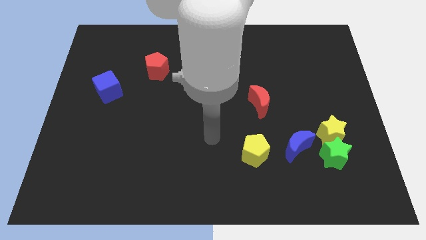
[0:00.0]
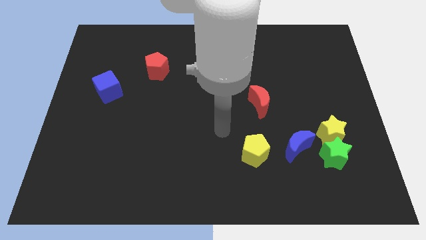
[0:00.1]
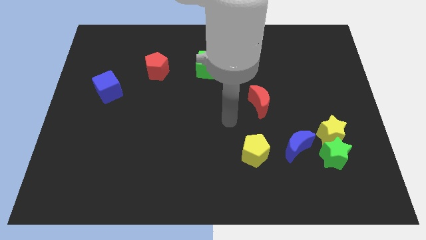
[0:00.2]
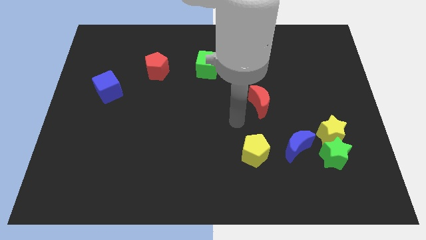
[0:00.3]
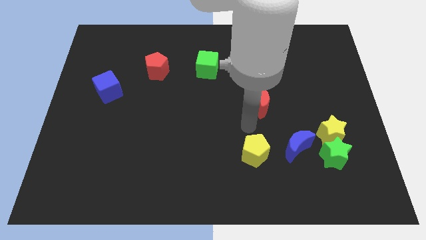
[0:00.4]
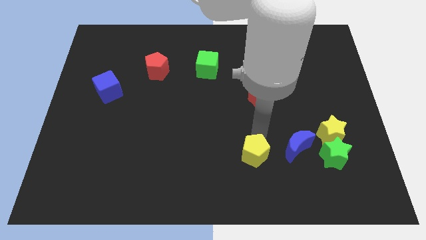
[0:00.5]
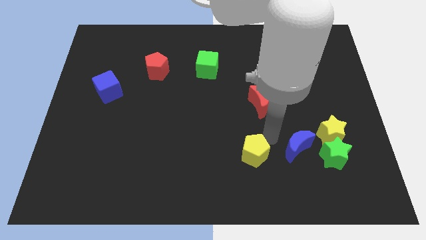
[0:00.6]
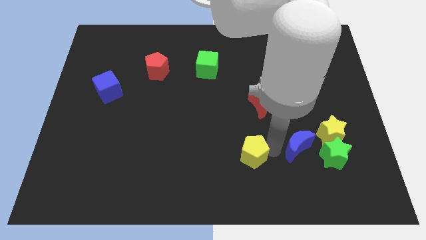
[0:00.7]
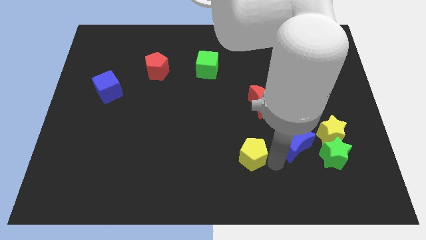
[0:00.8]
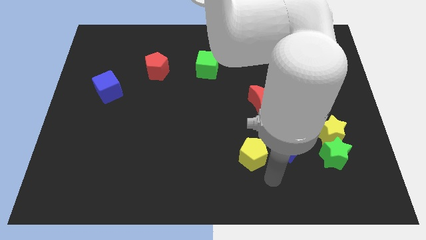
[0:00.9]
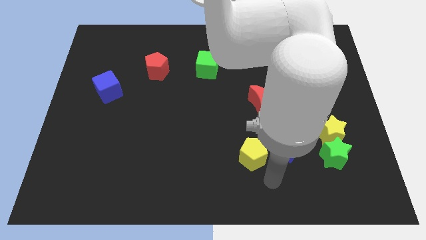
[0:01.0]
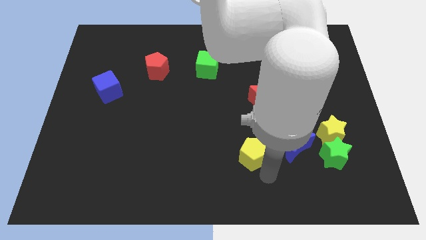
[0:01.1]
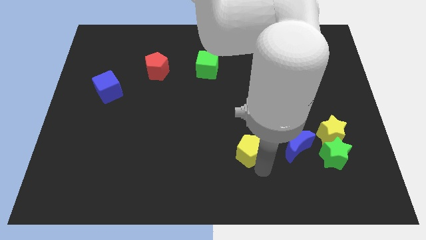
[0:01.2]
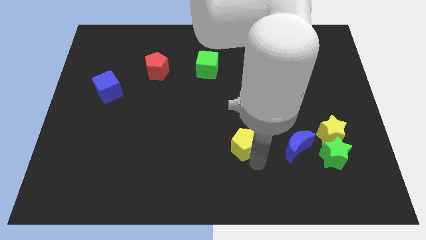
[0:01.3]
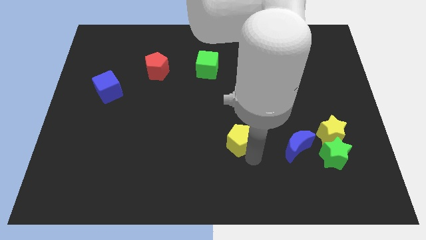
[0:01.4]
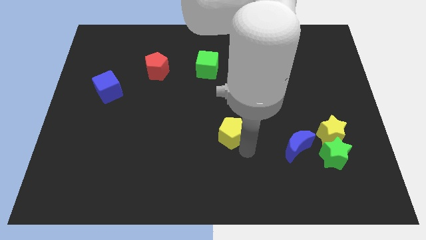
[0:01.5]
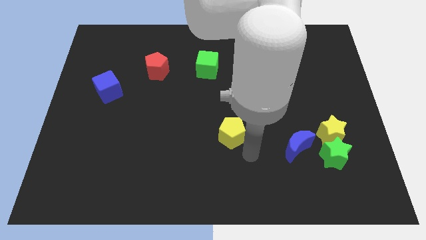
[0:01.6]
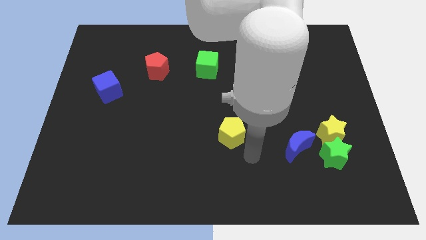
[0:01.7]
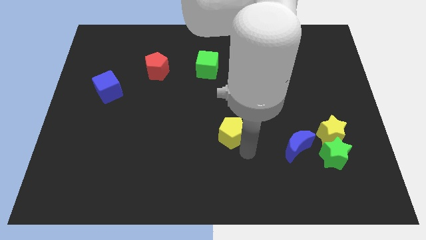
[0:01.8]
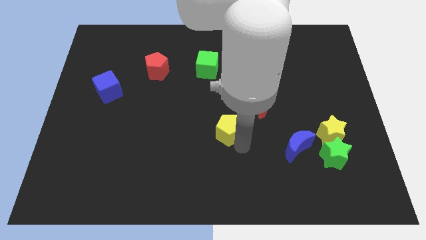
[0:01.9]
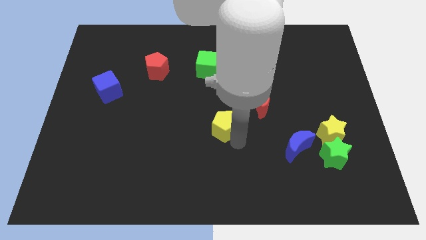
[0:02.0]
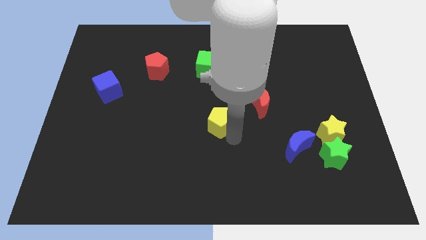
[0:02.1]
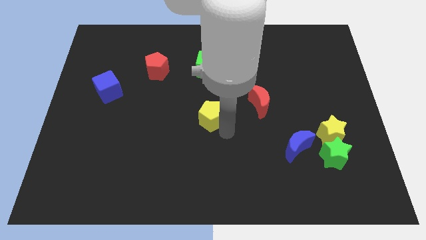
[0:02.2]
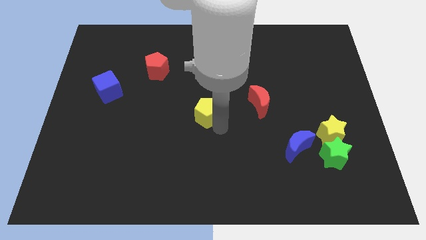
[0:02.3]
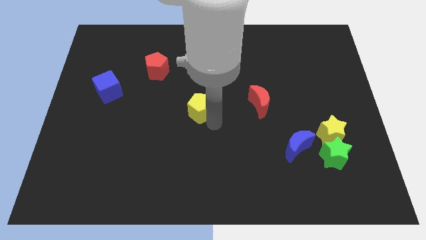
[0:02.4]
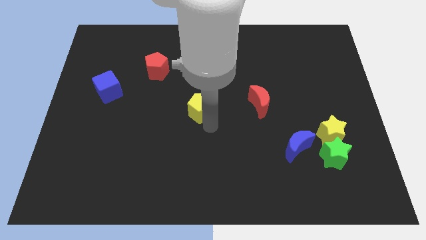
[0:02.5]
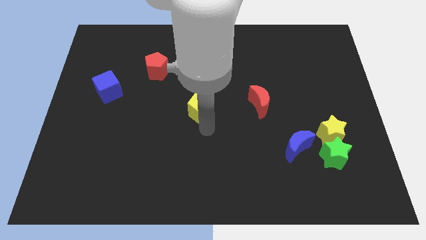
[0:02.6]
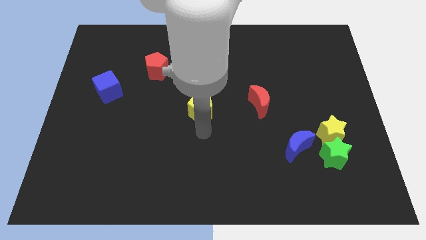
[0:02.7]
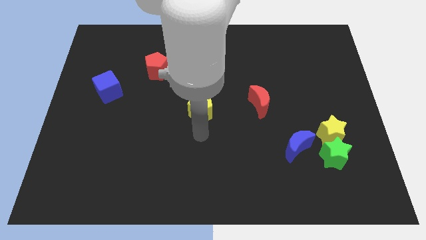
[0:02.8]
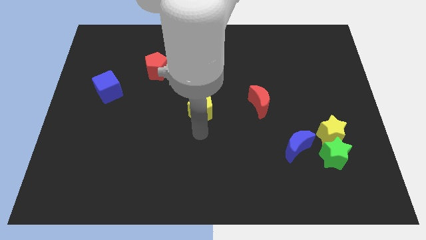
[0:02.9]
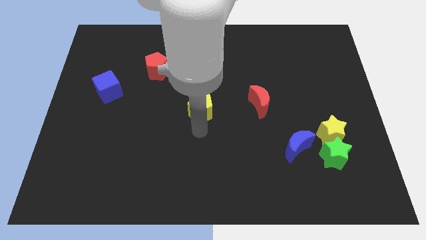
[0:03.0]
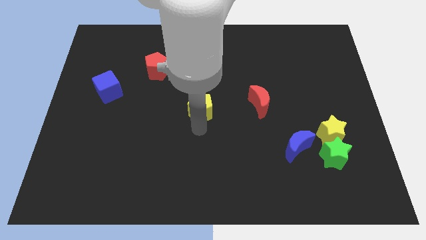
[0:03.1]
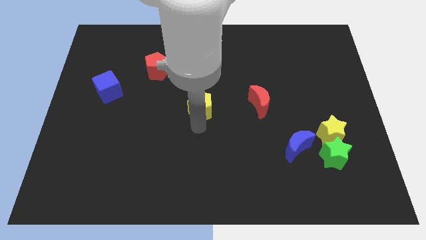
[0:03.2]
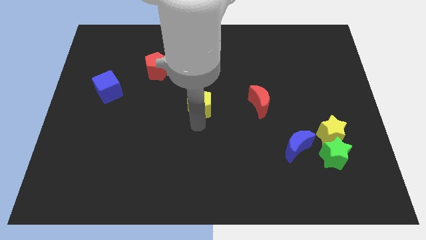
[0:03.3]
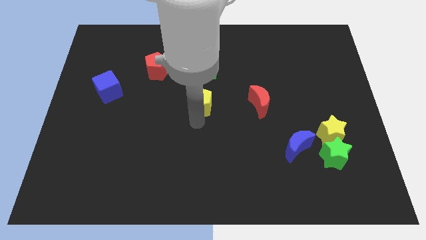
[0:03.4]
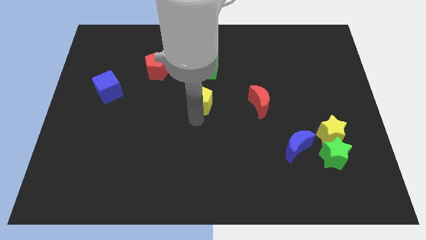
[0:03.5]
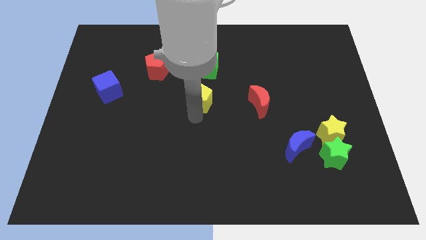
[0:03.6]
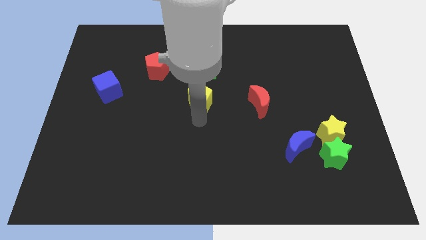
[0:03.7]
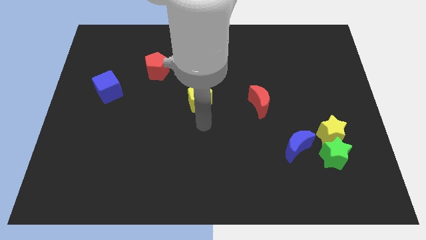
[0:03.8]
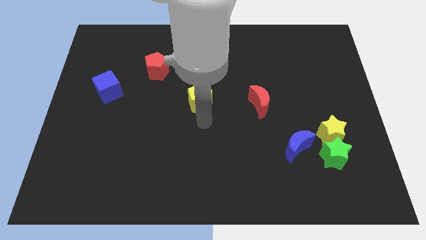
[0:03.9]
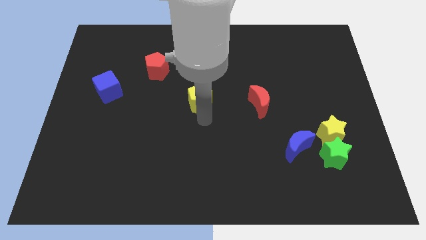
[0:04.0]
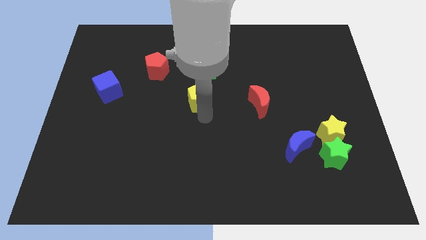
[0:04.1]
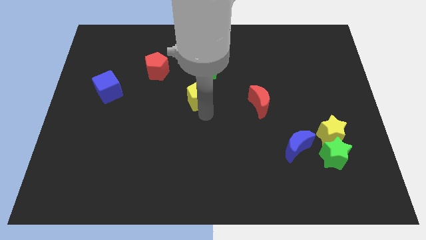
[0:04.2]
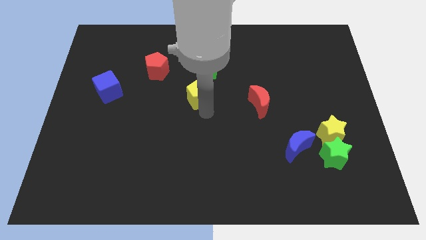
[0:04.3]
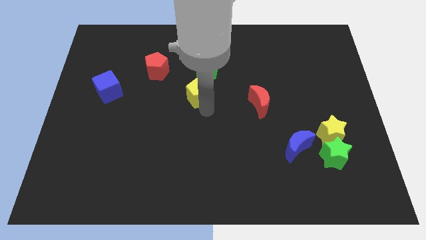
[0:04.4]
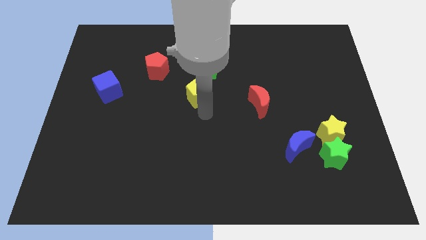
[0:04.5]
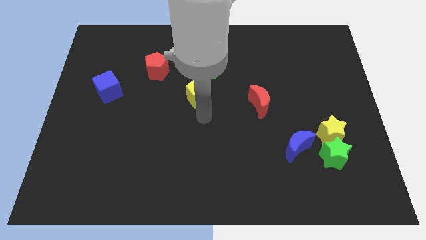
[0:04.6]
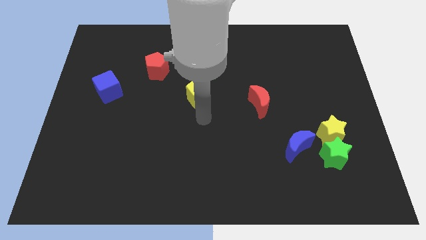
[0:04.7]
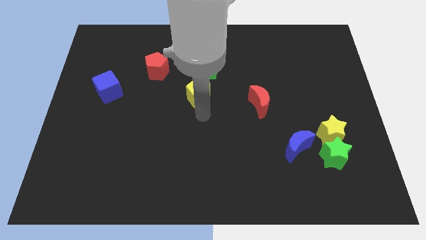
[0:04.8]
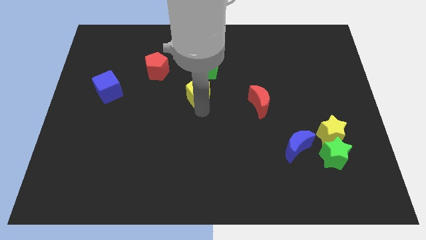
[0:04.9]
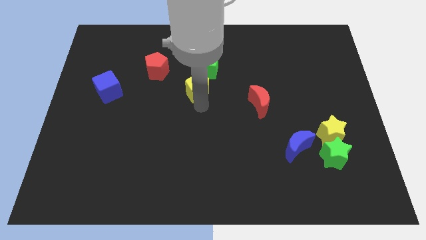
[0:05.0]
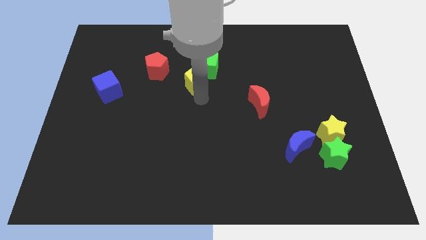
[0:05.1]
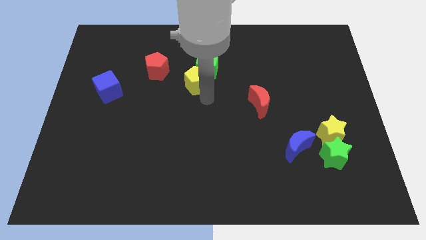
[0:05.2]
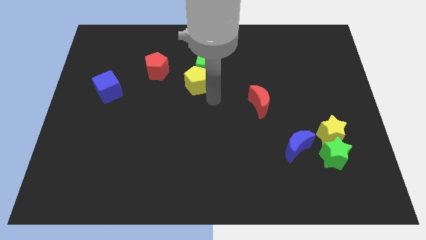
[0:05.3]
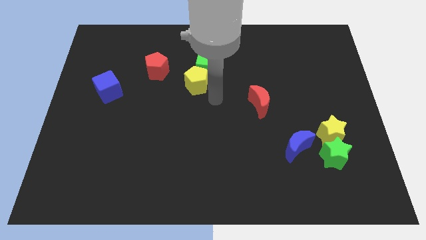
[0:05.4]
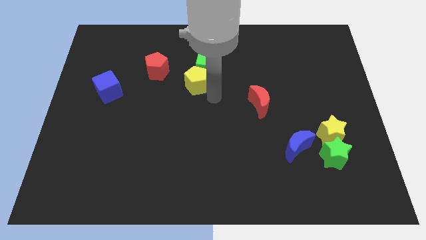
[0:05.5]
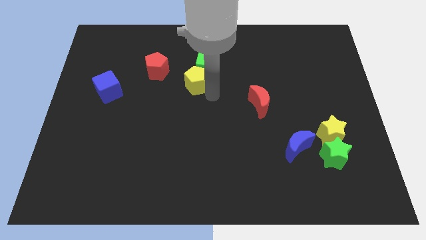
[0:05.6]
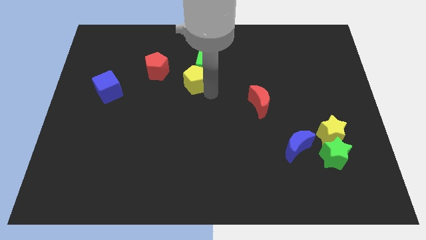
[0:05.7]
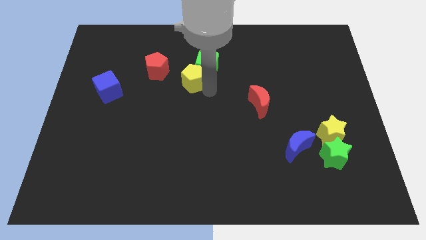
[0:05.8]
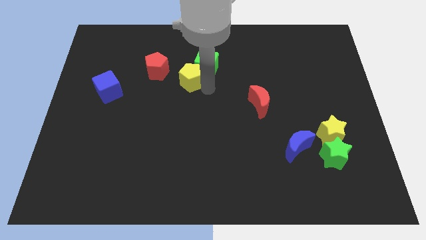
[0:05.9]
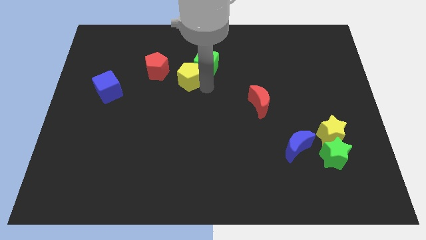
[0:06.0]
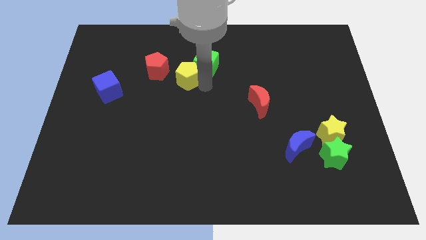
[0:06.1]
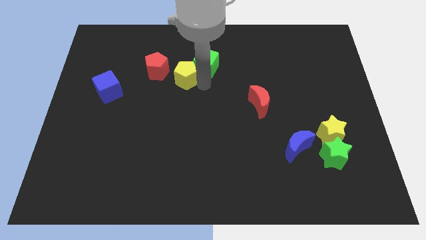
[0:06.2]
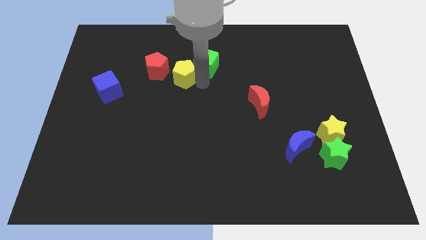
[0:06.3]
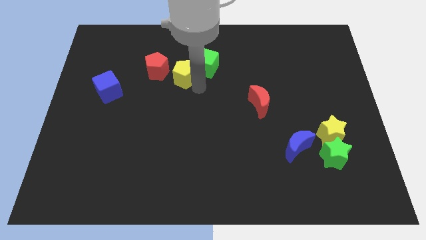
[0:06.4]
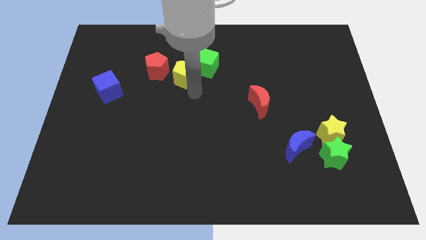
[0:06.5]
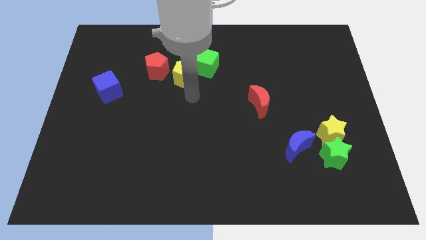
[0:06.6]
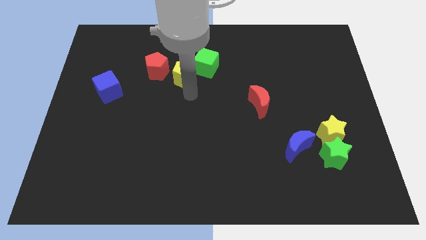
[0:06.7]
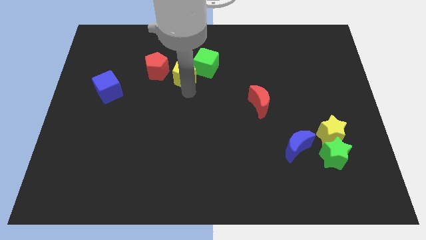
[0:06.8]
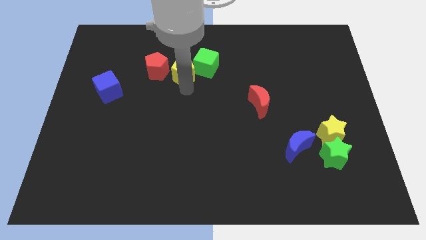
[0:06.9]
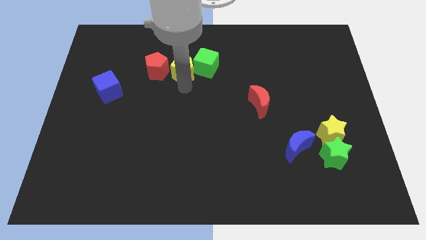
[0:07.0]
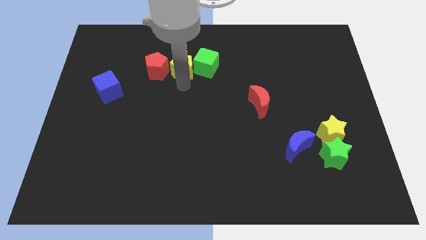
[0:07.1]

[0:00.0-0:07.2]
put the yellow pentagon diagonally up and to the right of the red pentagon

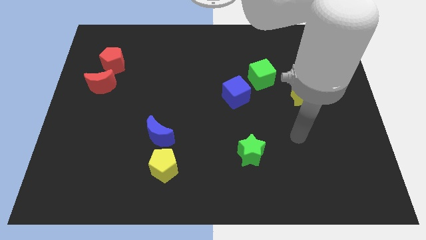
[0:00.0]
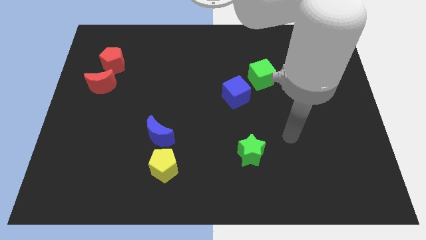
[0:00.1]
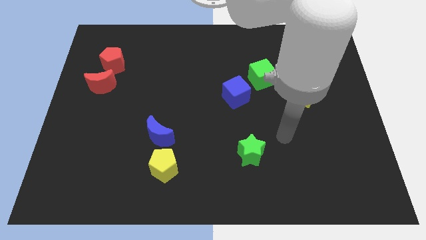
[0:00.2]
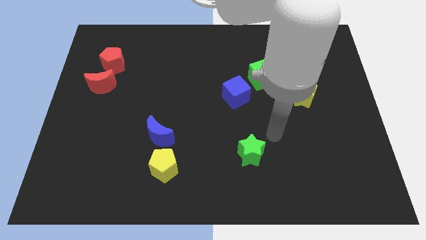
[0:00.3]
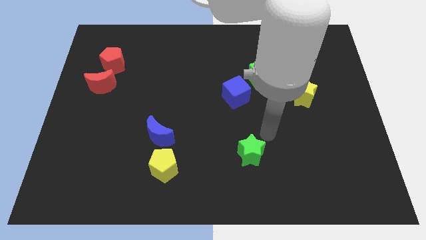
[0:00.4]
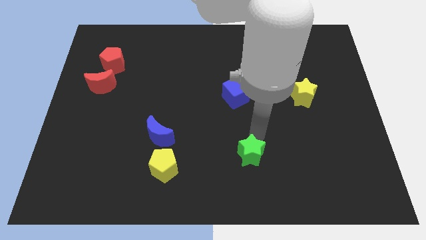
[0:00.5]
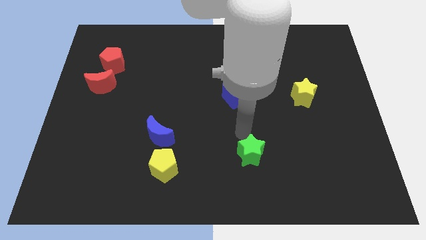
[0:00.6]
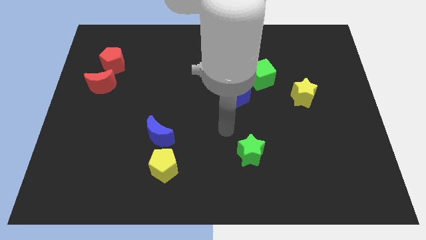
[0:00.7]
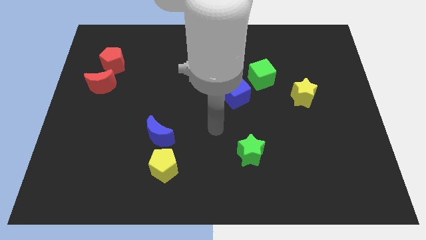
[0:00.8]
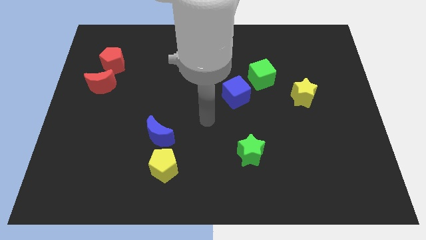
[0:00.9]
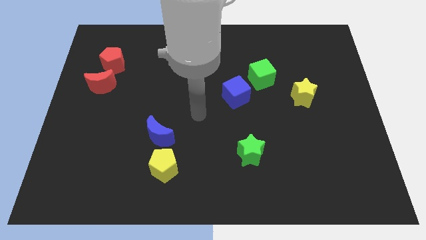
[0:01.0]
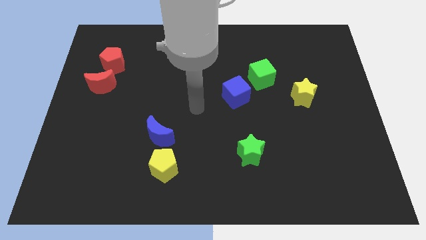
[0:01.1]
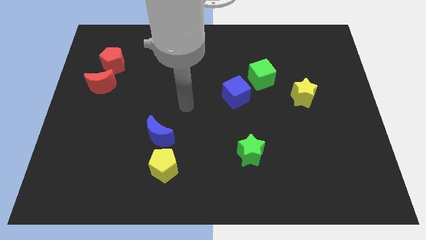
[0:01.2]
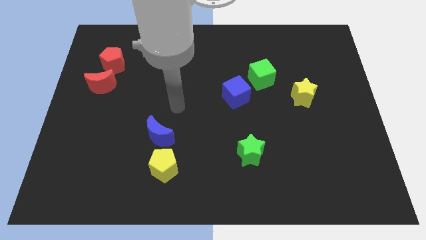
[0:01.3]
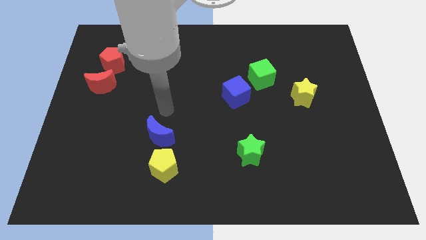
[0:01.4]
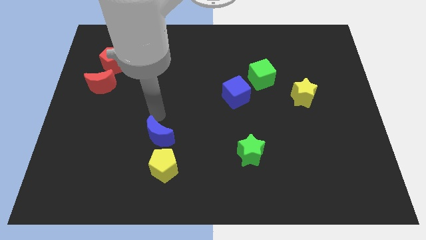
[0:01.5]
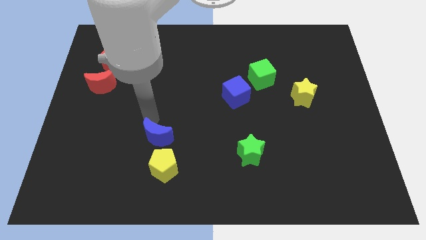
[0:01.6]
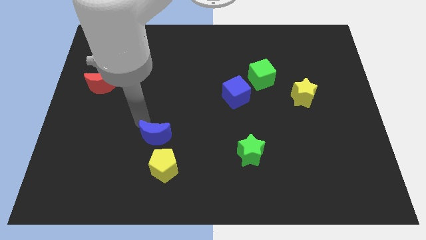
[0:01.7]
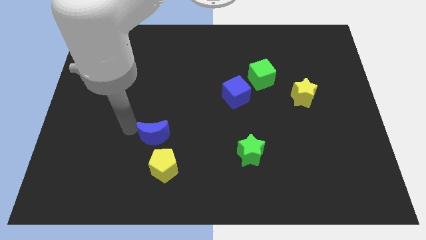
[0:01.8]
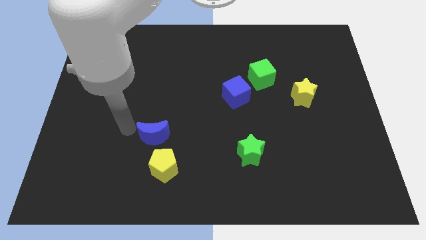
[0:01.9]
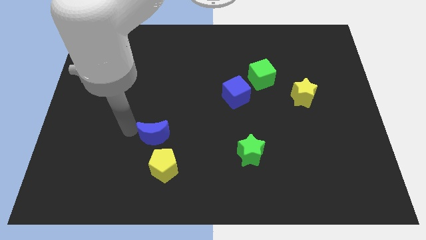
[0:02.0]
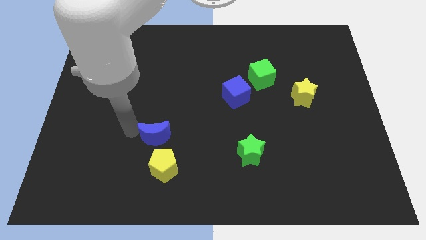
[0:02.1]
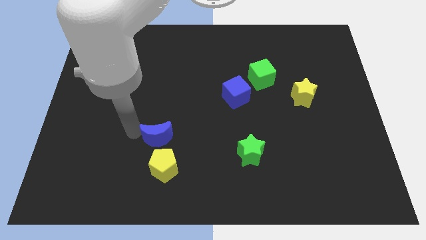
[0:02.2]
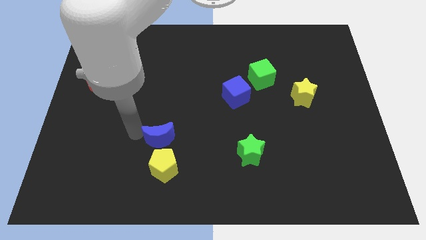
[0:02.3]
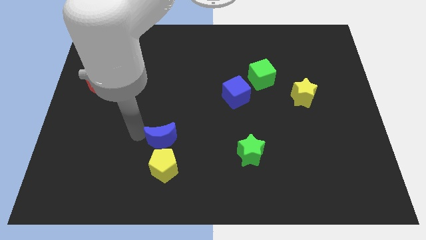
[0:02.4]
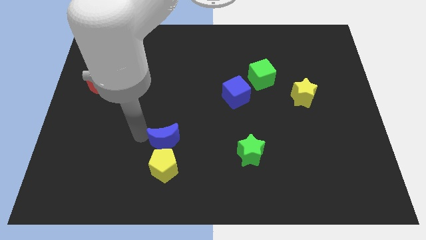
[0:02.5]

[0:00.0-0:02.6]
slide the blue moon to the top right of the yellow pentagon
